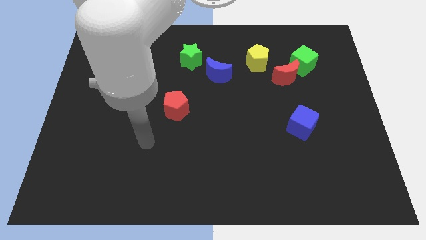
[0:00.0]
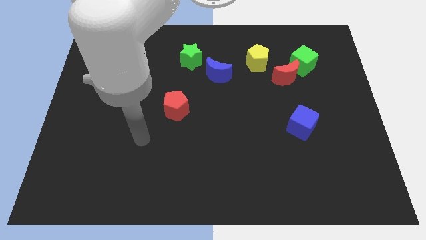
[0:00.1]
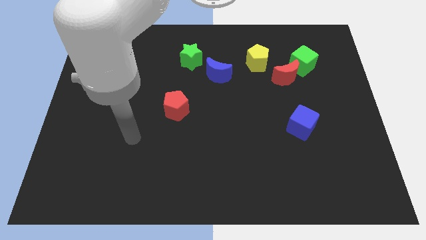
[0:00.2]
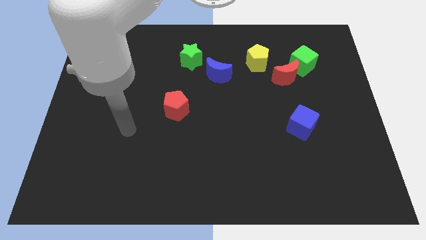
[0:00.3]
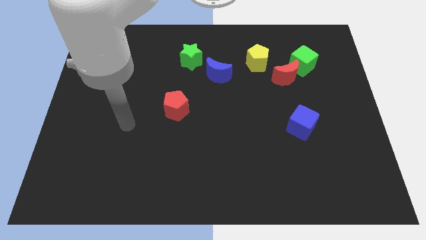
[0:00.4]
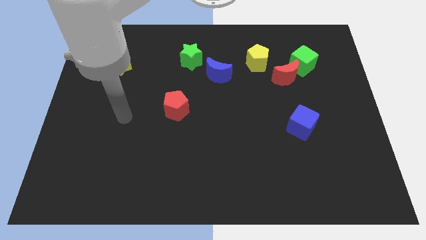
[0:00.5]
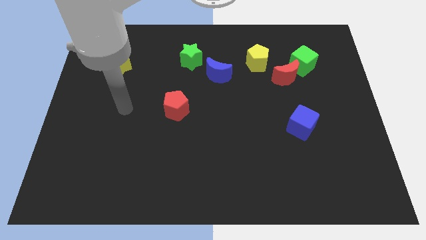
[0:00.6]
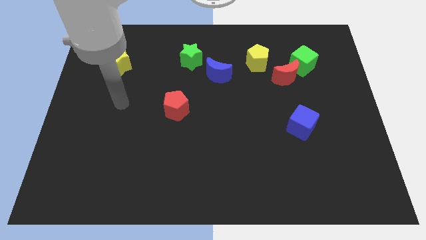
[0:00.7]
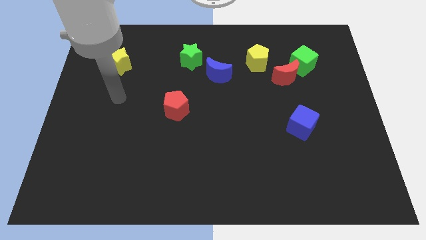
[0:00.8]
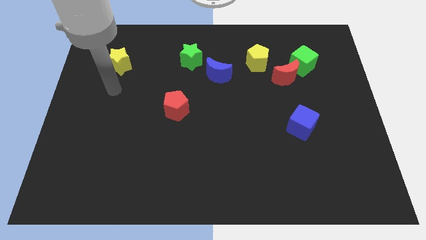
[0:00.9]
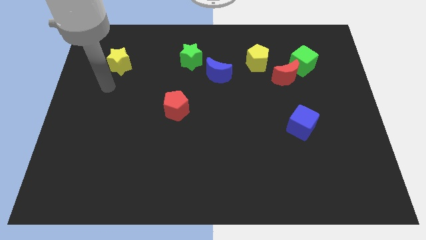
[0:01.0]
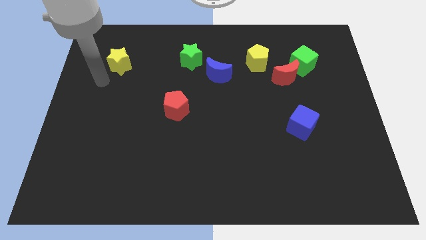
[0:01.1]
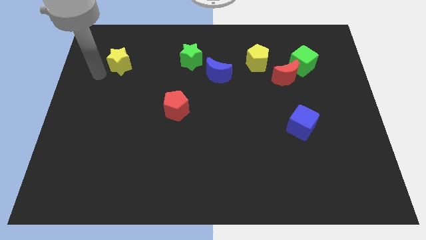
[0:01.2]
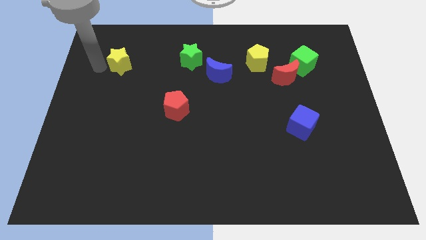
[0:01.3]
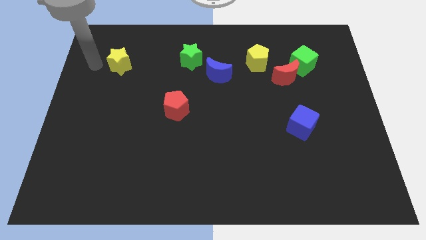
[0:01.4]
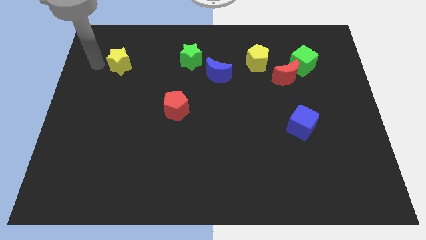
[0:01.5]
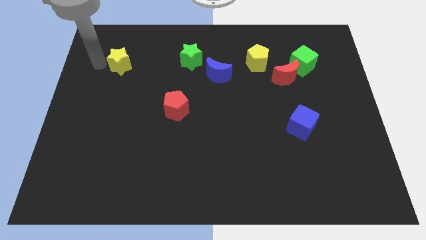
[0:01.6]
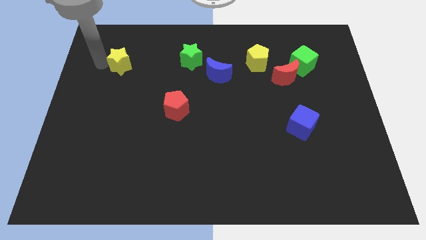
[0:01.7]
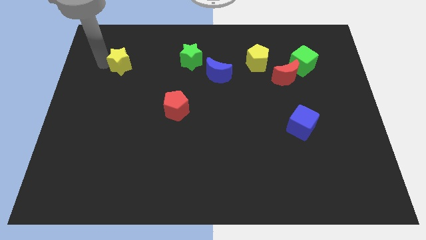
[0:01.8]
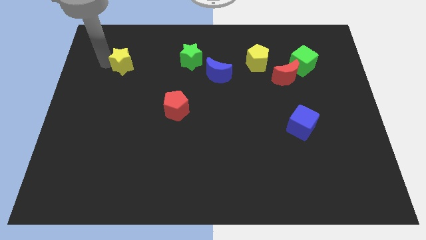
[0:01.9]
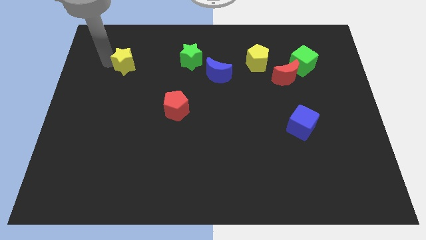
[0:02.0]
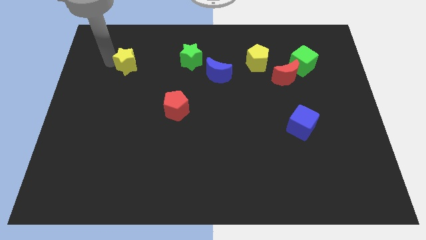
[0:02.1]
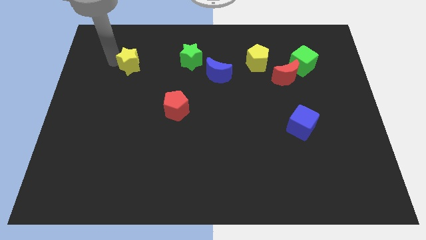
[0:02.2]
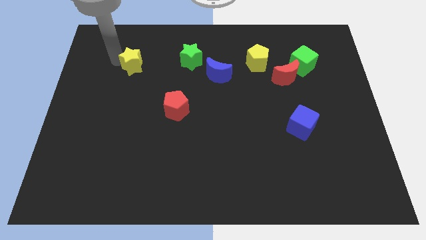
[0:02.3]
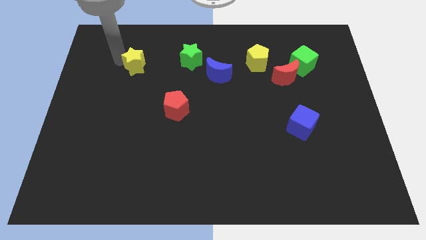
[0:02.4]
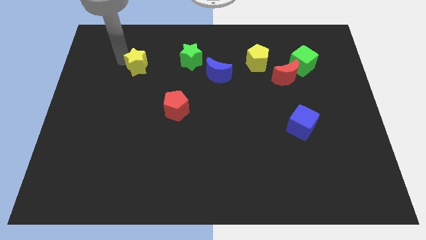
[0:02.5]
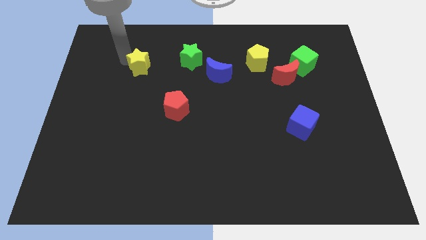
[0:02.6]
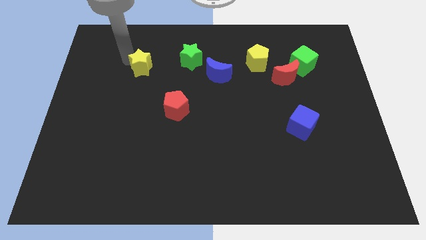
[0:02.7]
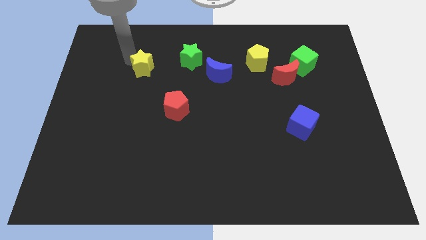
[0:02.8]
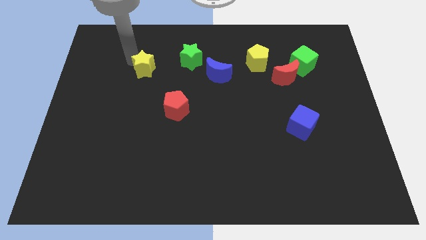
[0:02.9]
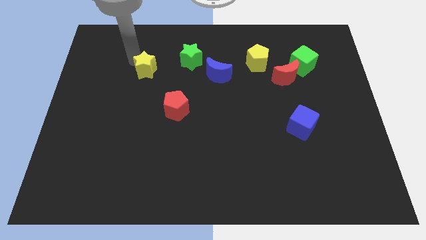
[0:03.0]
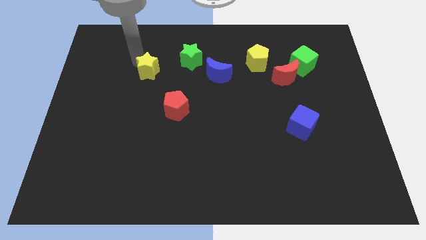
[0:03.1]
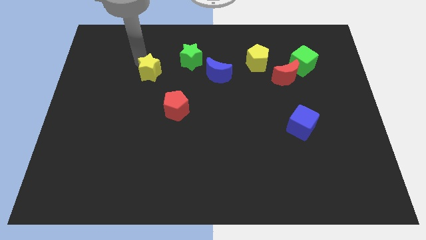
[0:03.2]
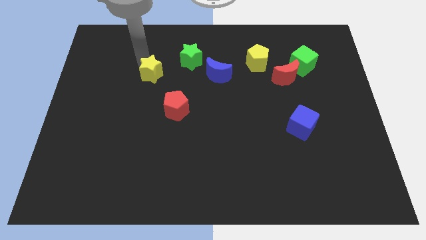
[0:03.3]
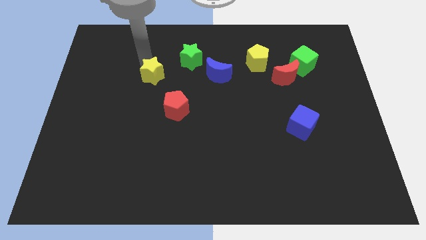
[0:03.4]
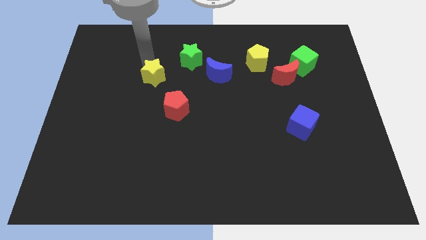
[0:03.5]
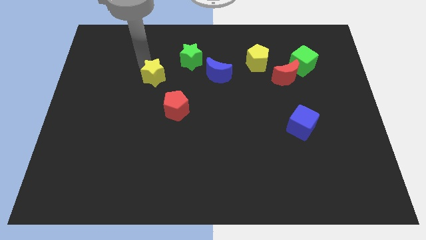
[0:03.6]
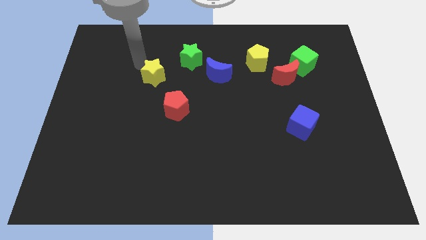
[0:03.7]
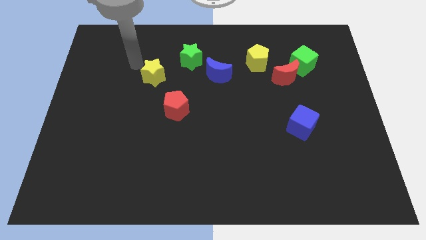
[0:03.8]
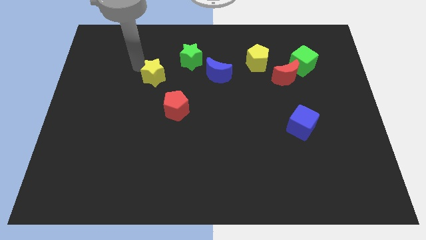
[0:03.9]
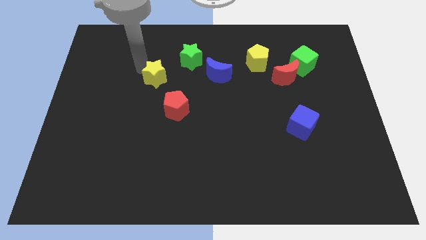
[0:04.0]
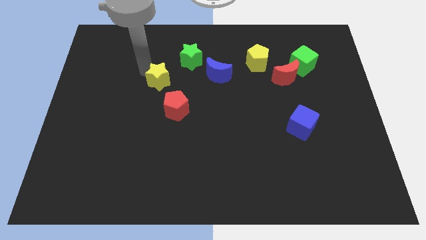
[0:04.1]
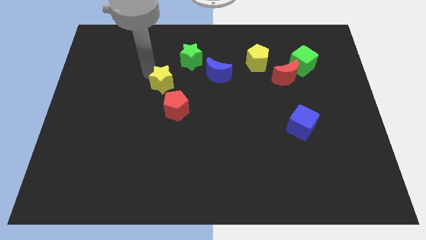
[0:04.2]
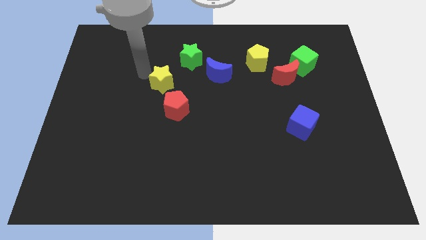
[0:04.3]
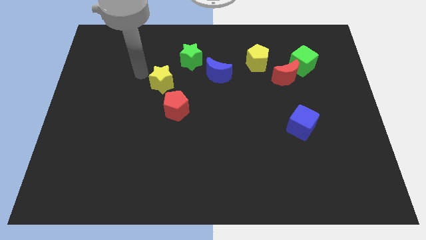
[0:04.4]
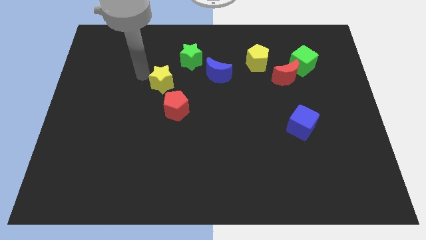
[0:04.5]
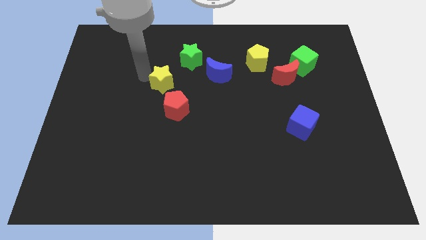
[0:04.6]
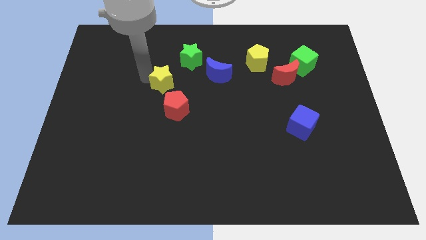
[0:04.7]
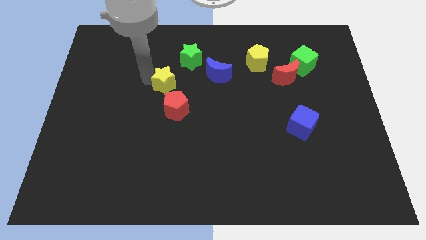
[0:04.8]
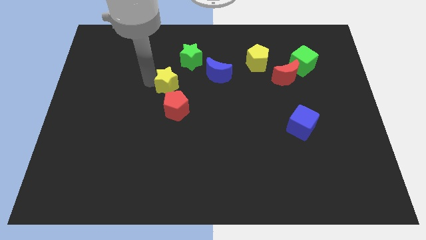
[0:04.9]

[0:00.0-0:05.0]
slide the yellow star to the middle of the board

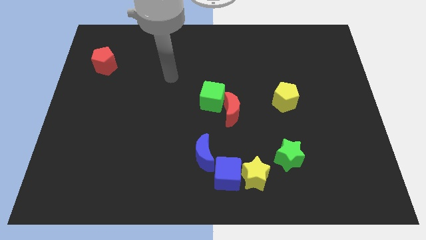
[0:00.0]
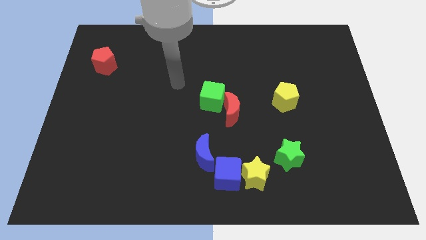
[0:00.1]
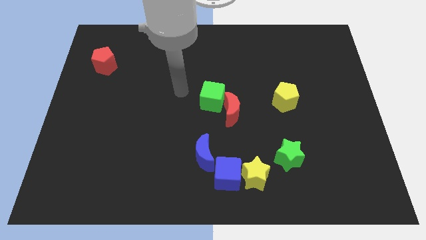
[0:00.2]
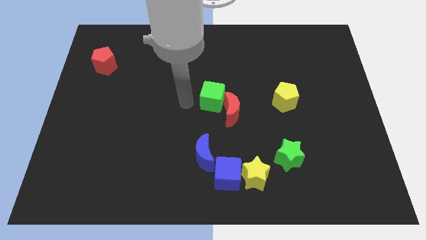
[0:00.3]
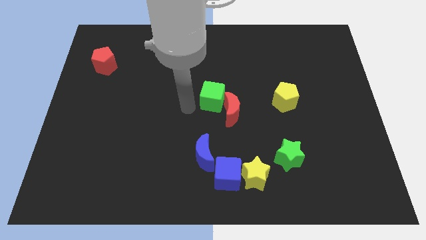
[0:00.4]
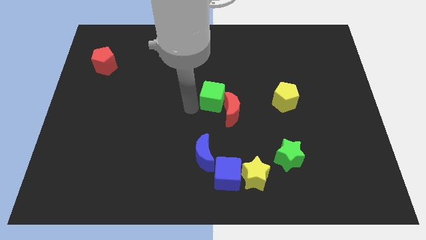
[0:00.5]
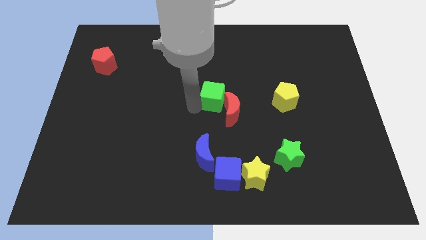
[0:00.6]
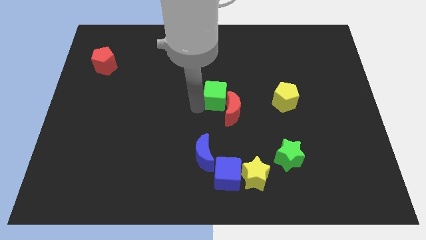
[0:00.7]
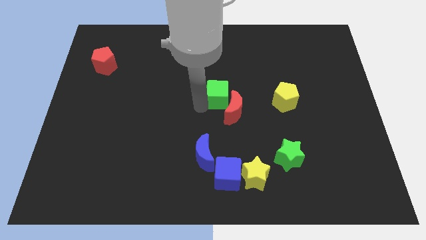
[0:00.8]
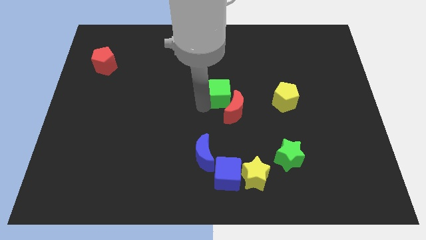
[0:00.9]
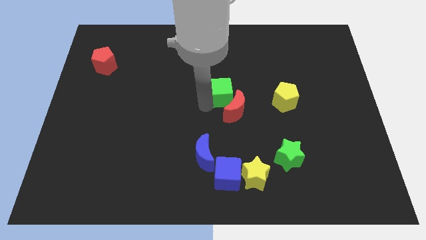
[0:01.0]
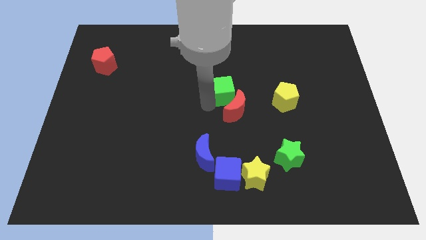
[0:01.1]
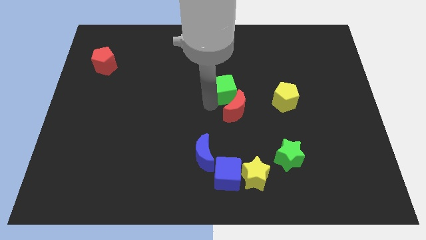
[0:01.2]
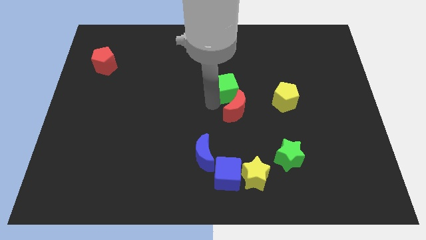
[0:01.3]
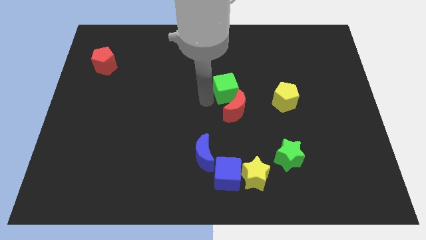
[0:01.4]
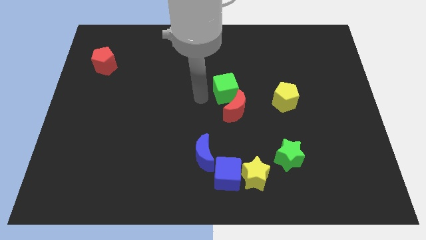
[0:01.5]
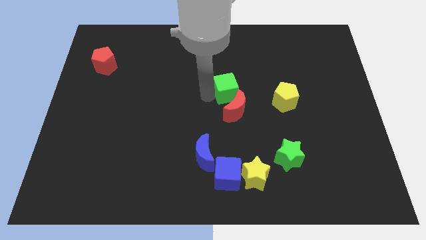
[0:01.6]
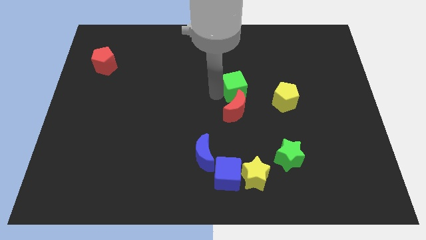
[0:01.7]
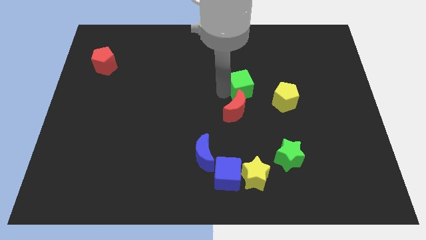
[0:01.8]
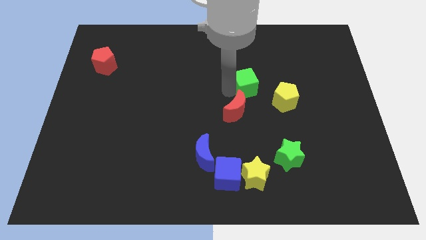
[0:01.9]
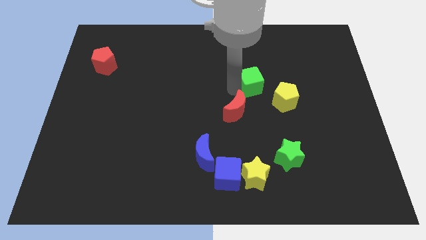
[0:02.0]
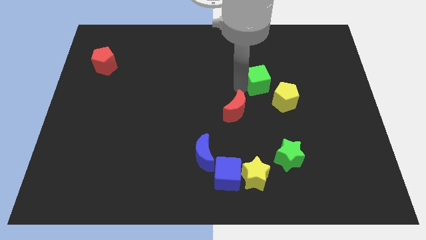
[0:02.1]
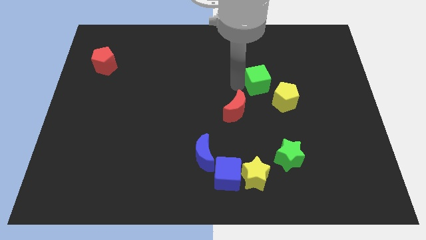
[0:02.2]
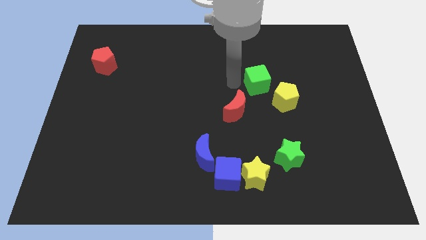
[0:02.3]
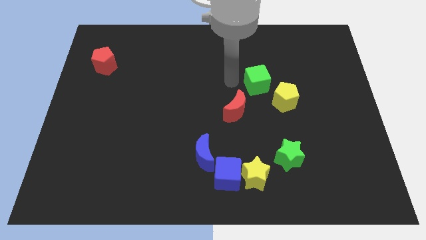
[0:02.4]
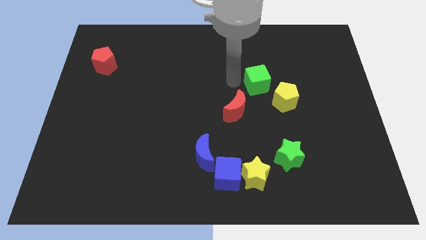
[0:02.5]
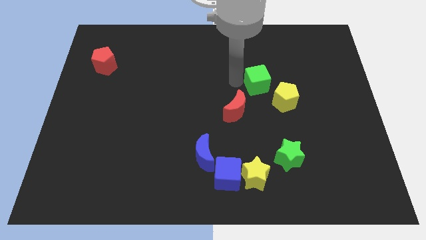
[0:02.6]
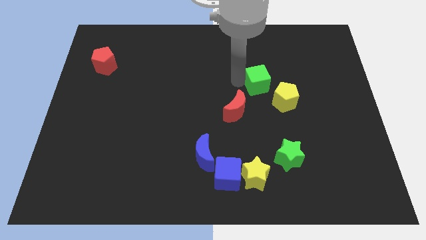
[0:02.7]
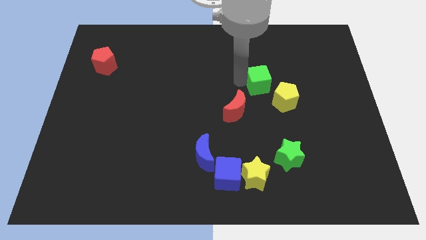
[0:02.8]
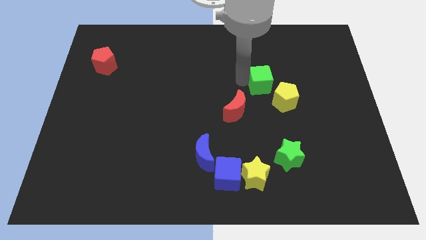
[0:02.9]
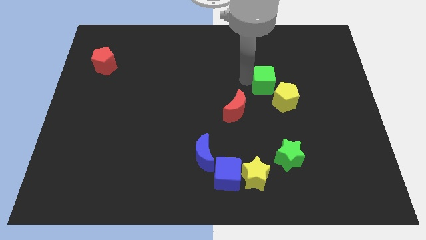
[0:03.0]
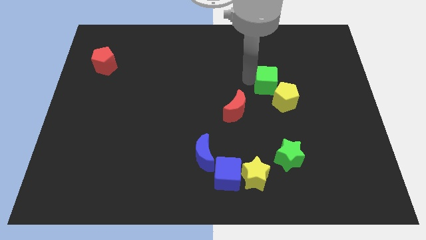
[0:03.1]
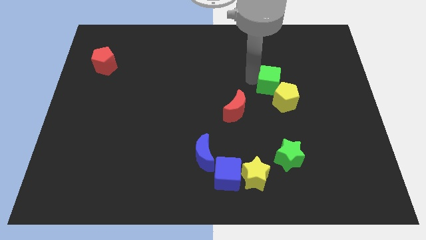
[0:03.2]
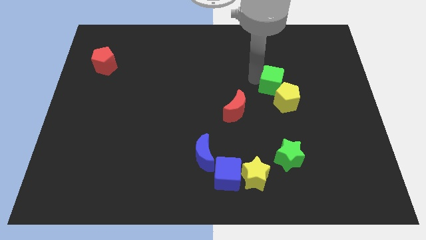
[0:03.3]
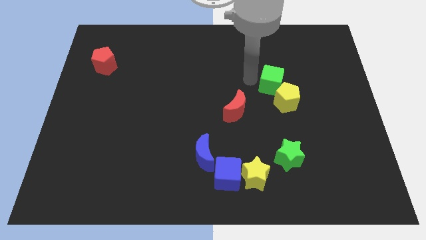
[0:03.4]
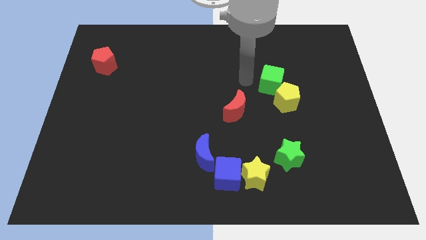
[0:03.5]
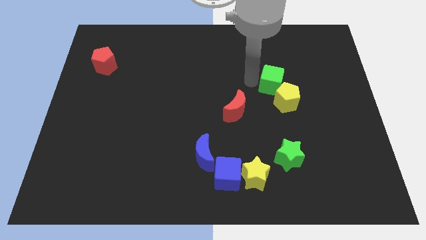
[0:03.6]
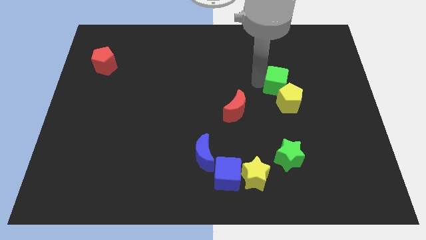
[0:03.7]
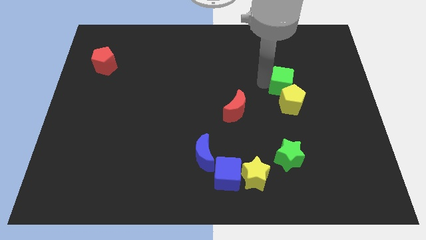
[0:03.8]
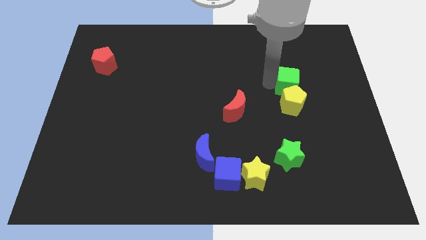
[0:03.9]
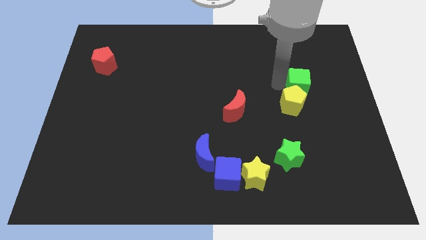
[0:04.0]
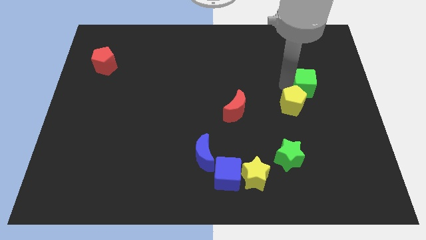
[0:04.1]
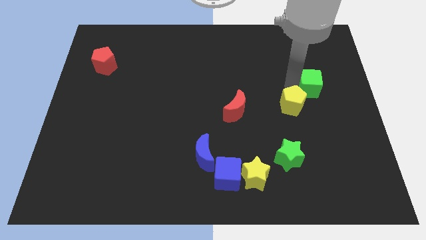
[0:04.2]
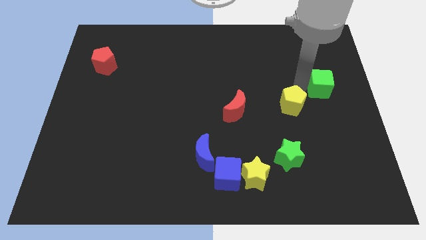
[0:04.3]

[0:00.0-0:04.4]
slide the green cube to the right side of the board
